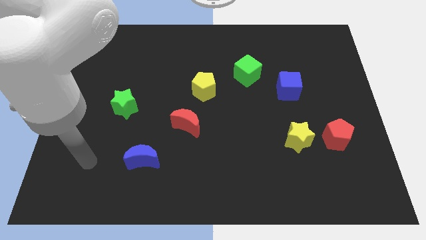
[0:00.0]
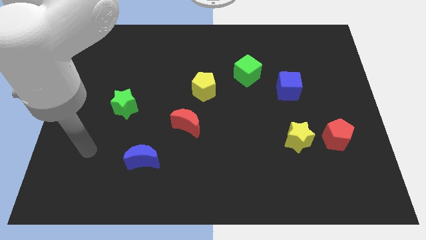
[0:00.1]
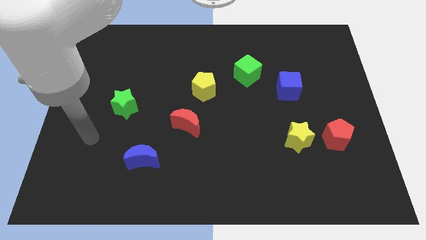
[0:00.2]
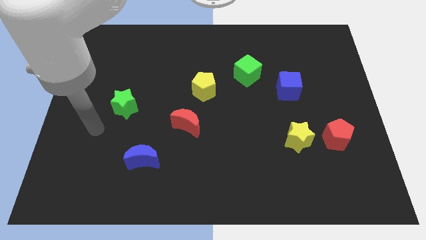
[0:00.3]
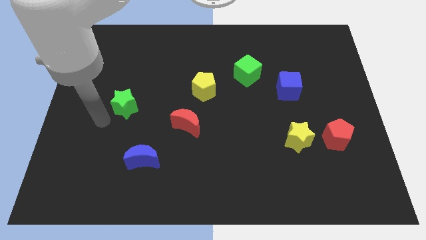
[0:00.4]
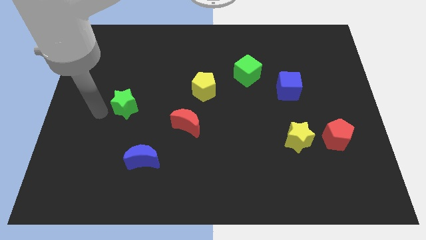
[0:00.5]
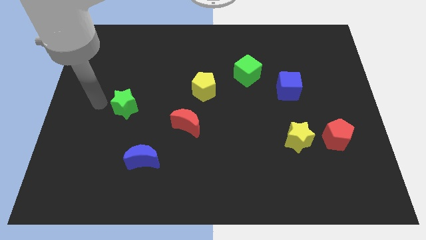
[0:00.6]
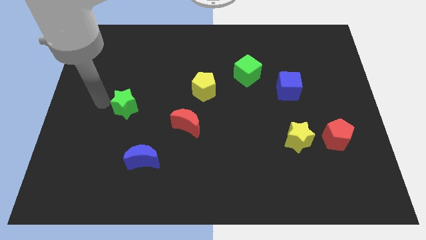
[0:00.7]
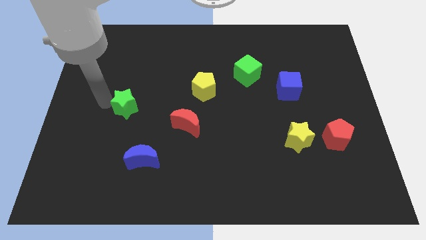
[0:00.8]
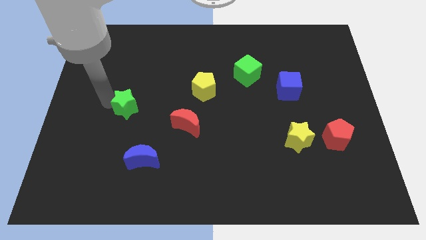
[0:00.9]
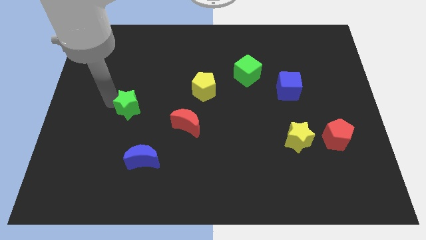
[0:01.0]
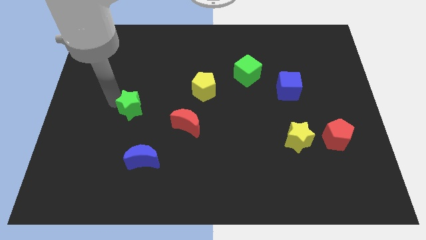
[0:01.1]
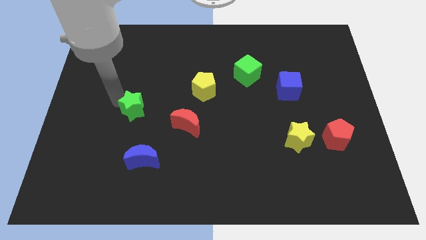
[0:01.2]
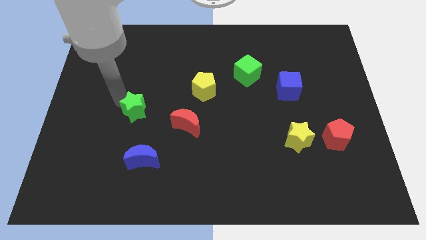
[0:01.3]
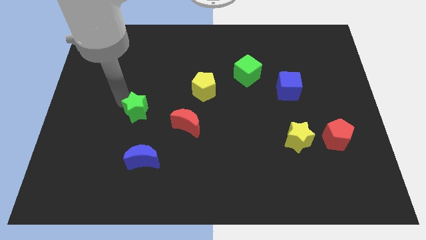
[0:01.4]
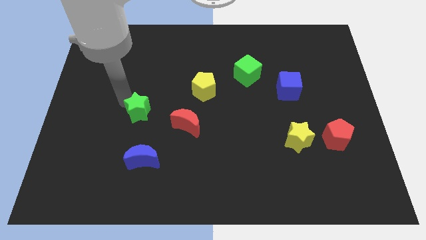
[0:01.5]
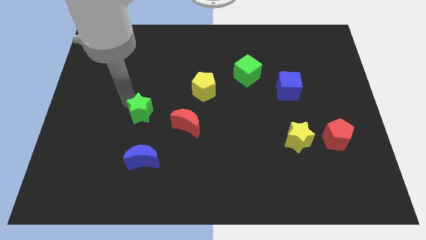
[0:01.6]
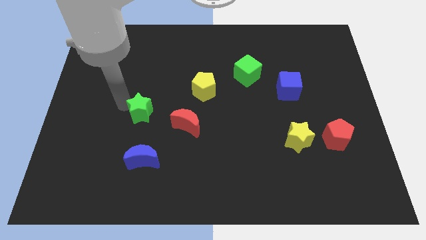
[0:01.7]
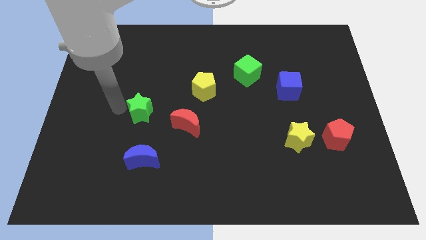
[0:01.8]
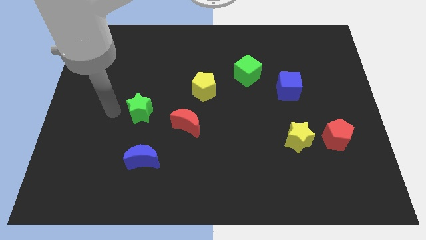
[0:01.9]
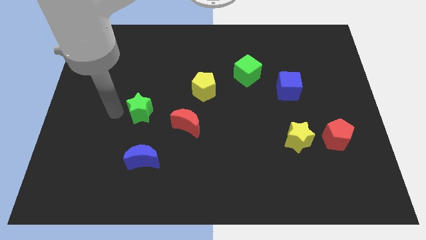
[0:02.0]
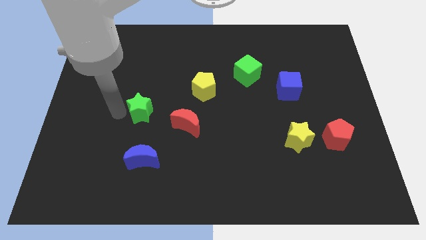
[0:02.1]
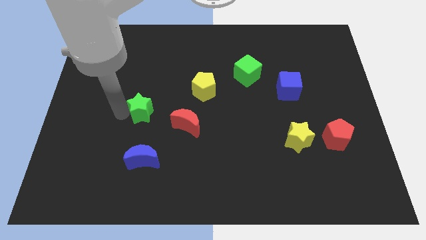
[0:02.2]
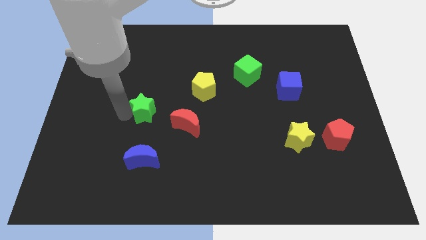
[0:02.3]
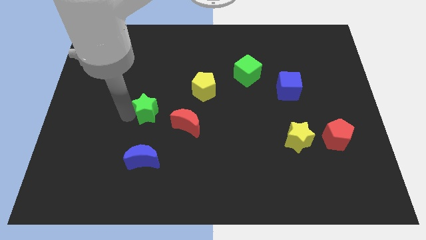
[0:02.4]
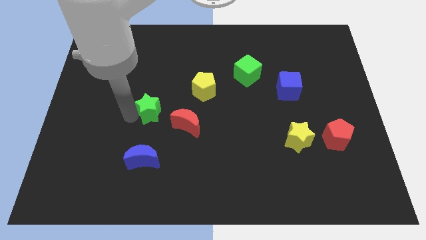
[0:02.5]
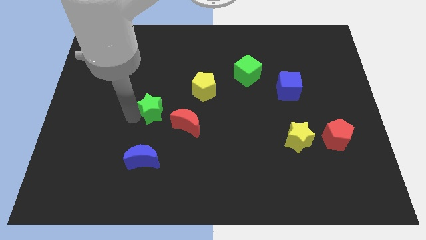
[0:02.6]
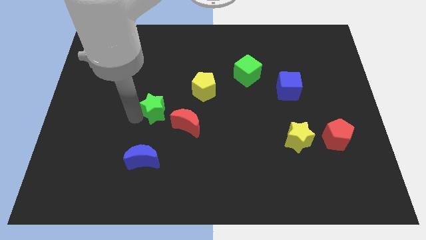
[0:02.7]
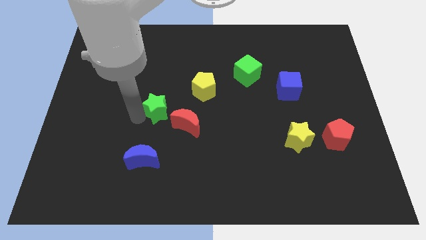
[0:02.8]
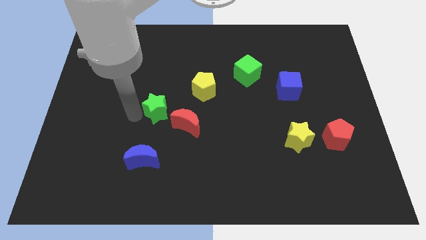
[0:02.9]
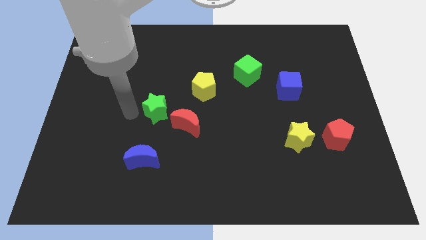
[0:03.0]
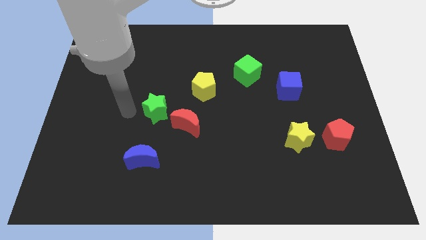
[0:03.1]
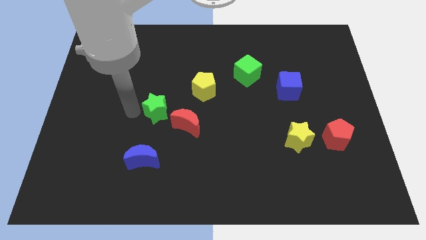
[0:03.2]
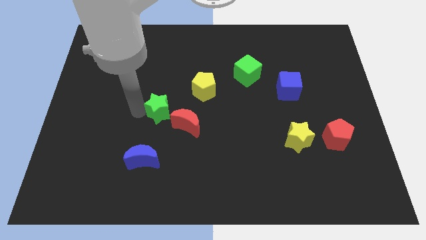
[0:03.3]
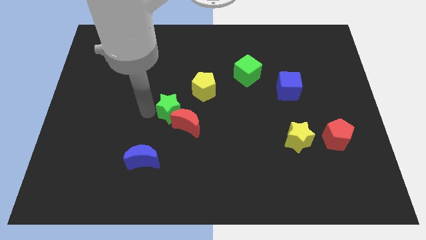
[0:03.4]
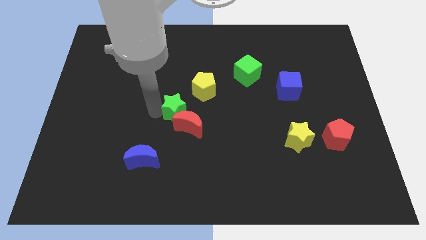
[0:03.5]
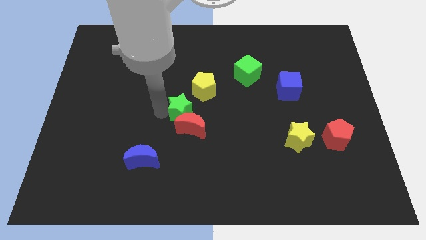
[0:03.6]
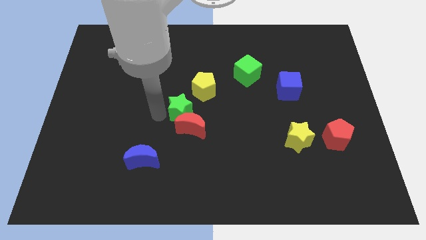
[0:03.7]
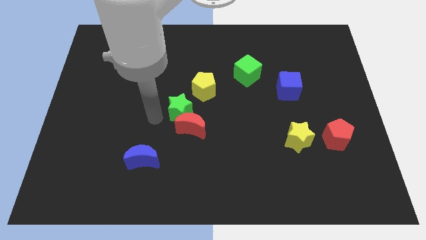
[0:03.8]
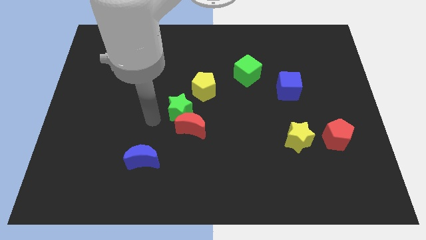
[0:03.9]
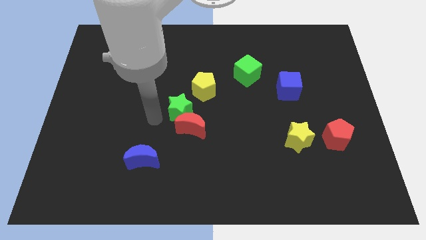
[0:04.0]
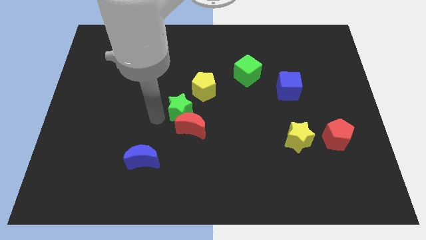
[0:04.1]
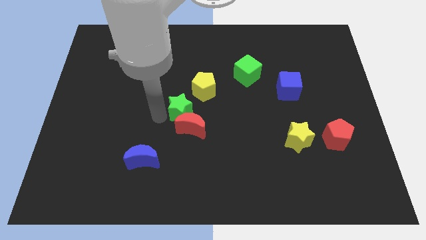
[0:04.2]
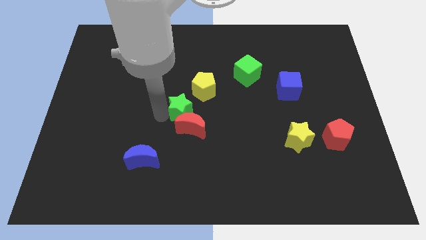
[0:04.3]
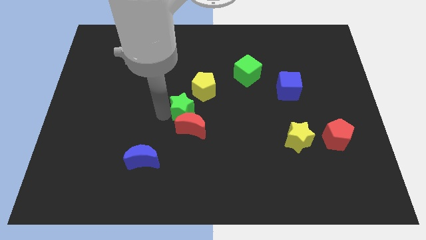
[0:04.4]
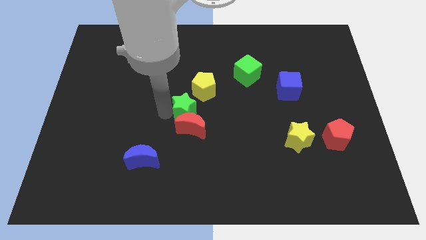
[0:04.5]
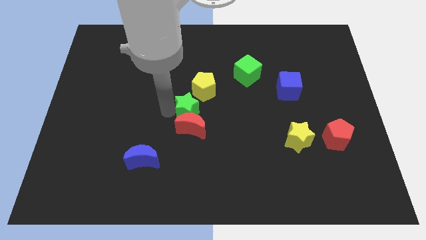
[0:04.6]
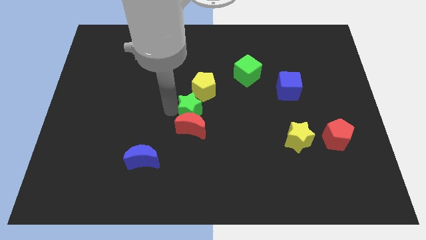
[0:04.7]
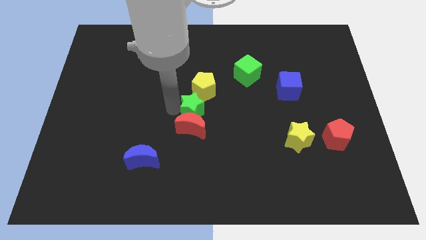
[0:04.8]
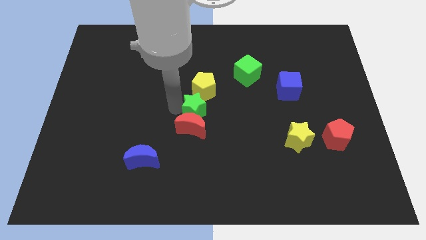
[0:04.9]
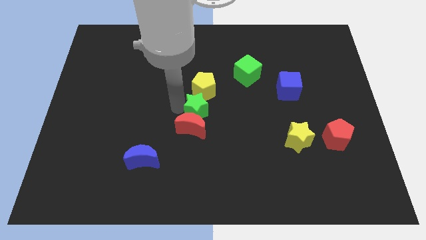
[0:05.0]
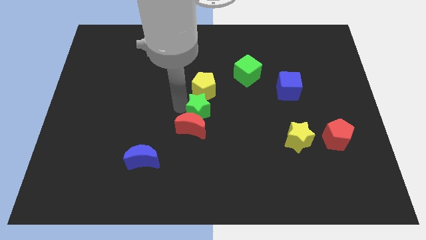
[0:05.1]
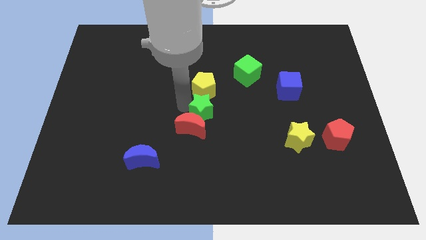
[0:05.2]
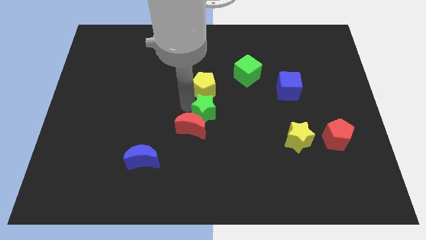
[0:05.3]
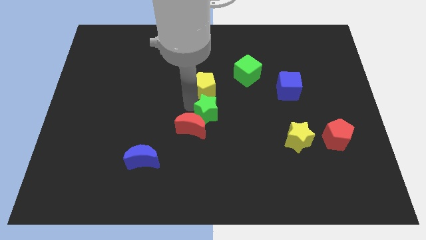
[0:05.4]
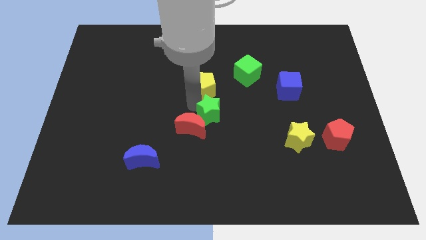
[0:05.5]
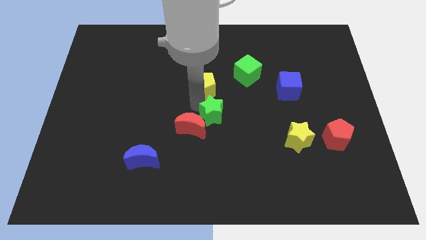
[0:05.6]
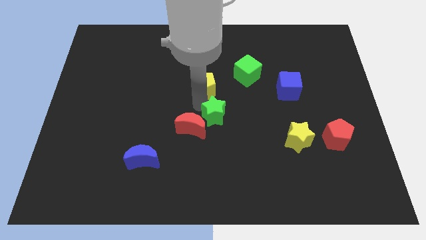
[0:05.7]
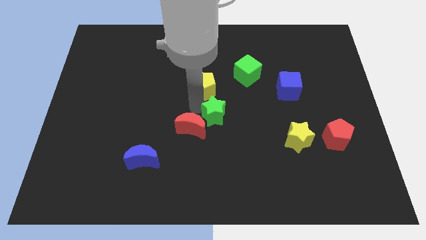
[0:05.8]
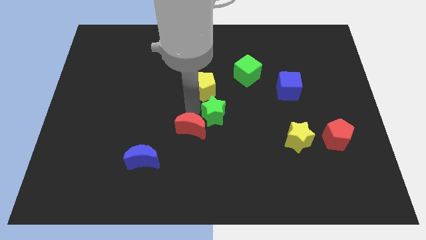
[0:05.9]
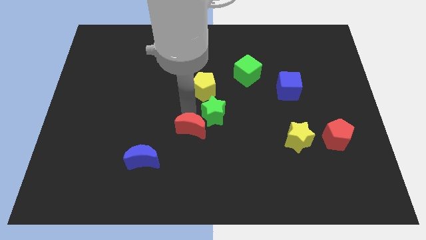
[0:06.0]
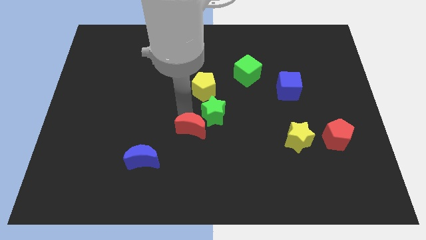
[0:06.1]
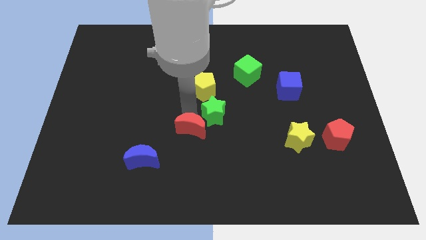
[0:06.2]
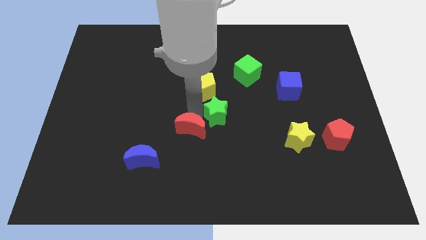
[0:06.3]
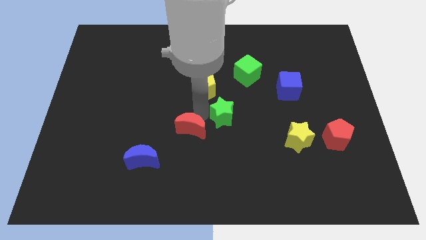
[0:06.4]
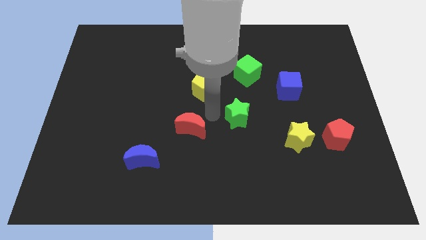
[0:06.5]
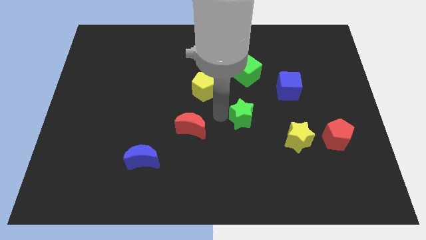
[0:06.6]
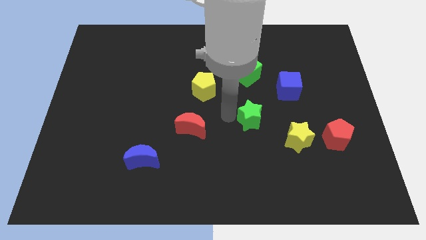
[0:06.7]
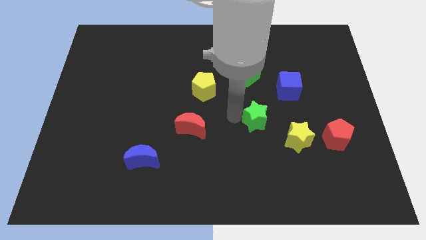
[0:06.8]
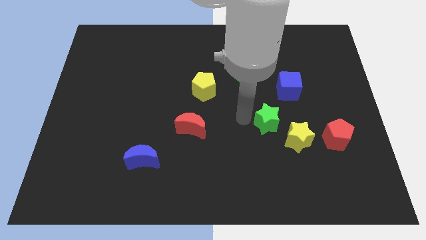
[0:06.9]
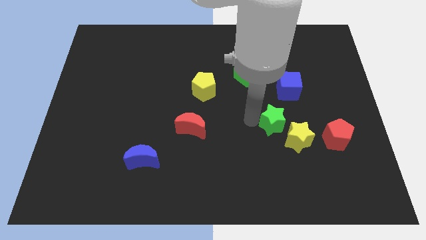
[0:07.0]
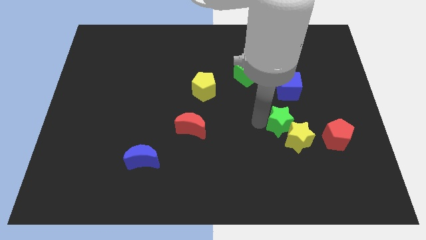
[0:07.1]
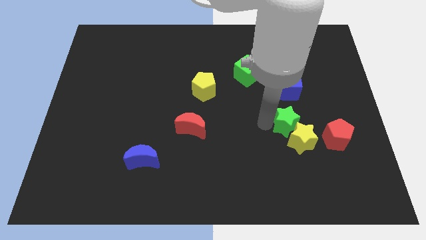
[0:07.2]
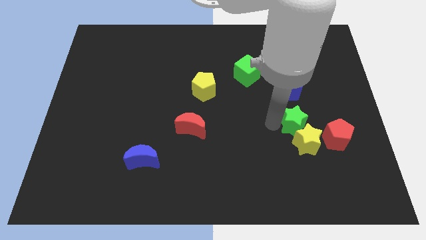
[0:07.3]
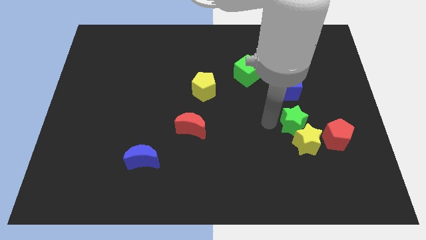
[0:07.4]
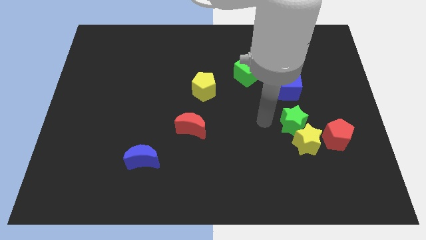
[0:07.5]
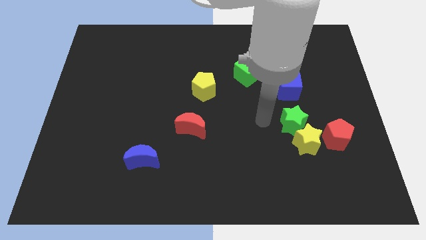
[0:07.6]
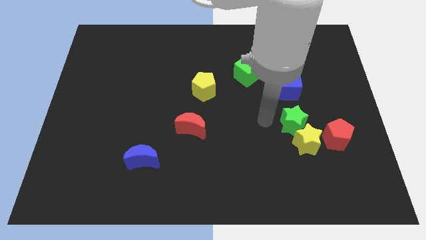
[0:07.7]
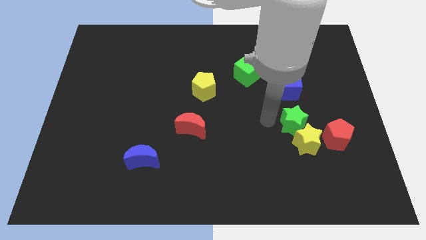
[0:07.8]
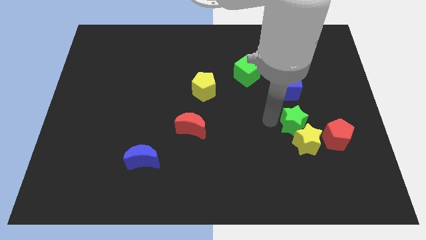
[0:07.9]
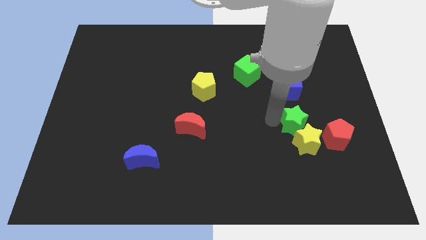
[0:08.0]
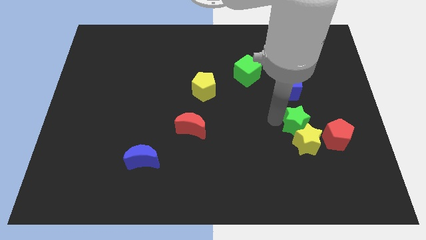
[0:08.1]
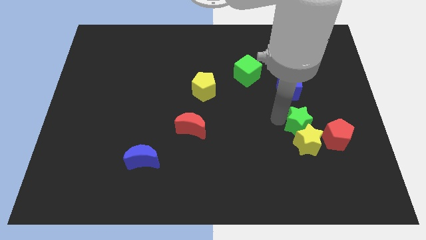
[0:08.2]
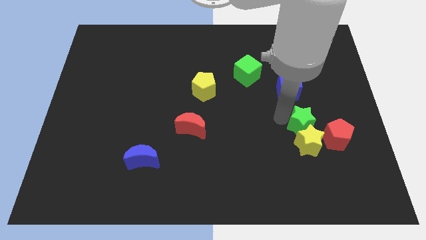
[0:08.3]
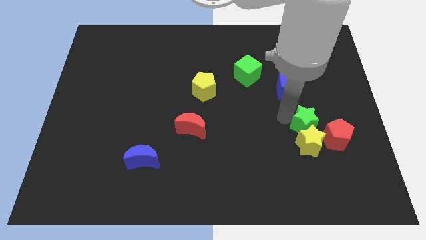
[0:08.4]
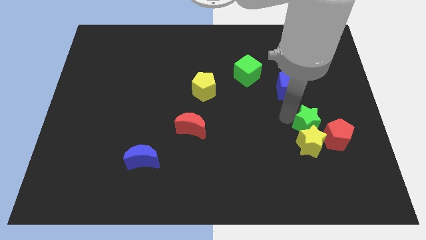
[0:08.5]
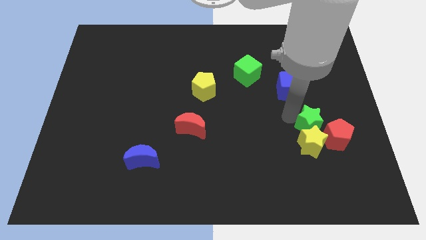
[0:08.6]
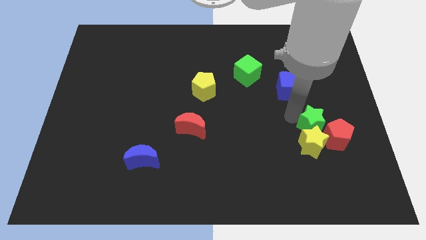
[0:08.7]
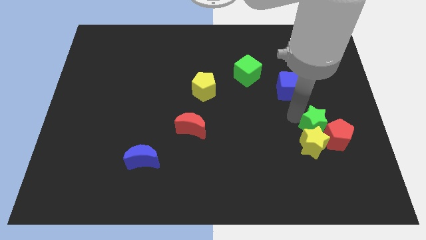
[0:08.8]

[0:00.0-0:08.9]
slide the green star close to the red pentagon
